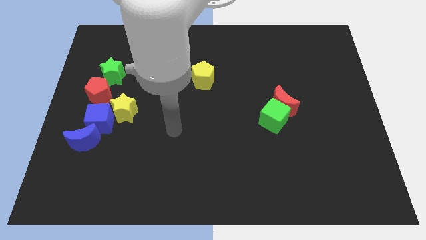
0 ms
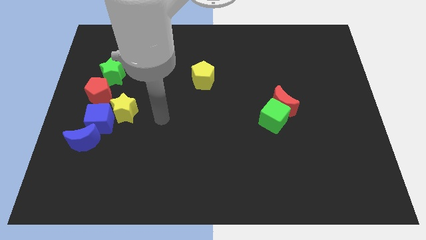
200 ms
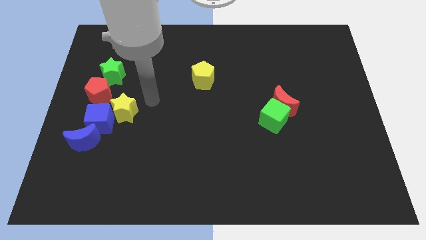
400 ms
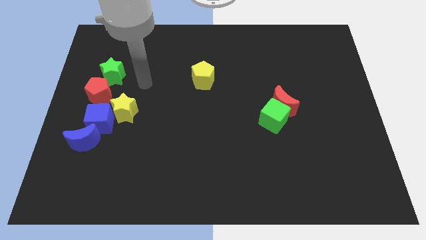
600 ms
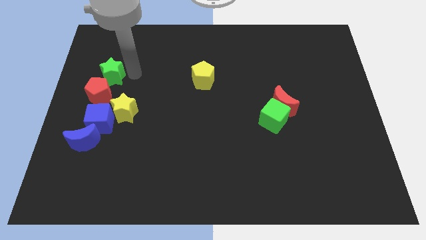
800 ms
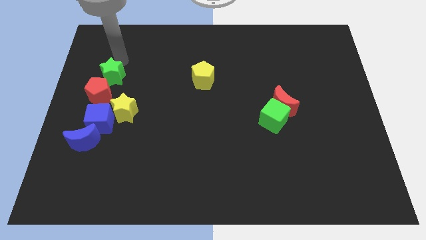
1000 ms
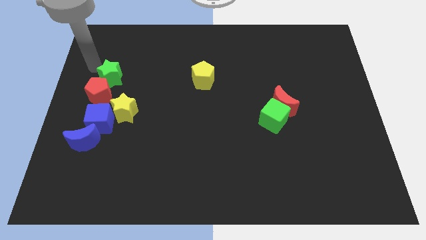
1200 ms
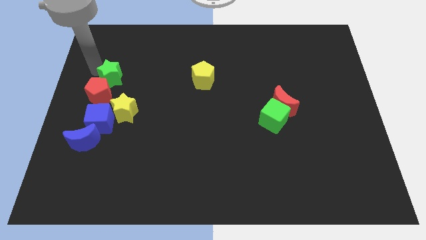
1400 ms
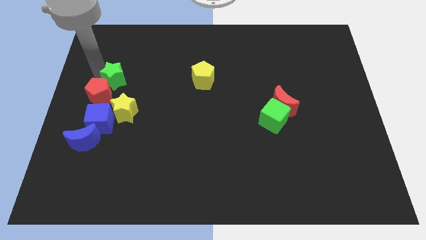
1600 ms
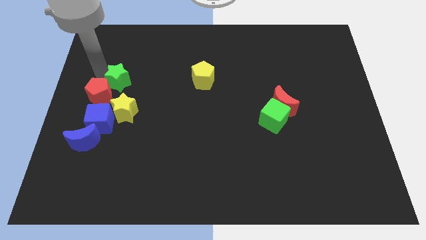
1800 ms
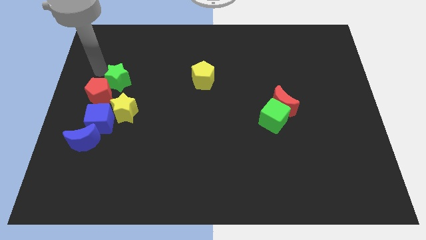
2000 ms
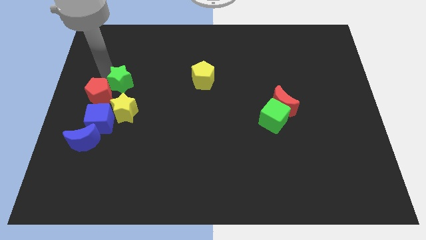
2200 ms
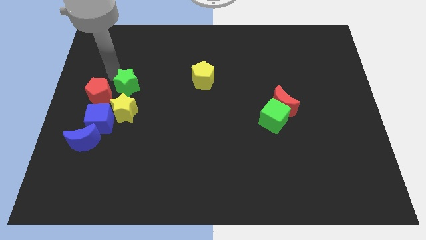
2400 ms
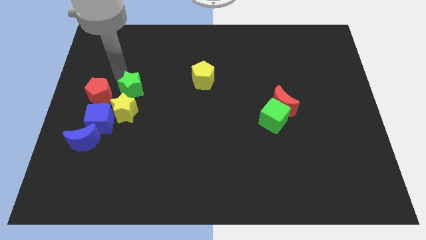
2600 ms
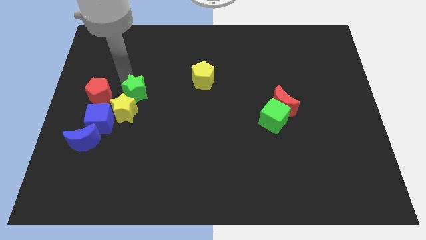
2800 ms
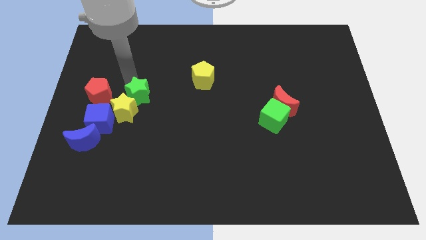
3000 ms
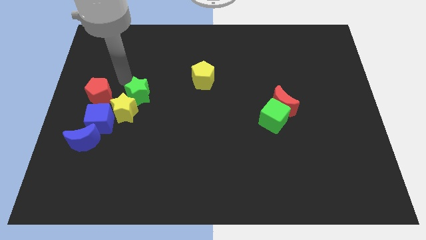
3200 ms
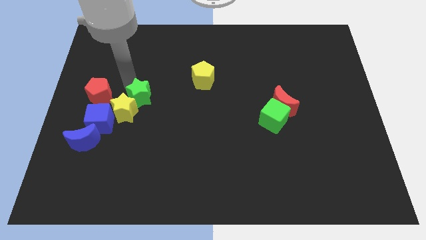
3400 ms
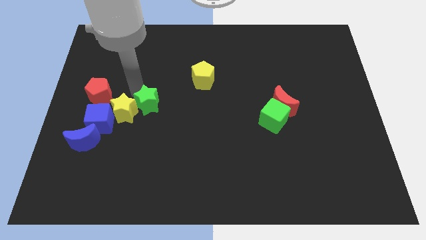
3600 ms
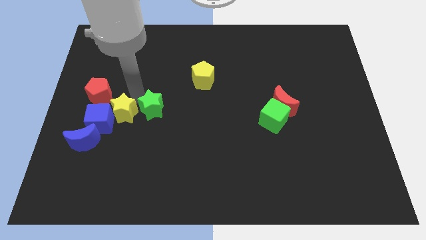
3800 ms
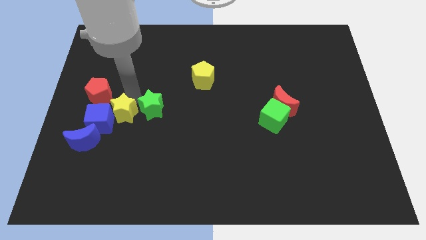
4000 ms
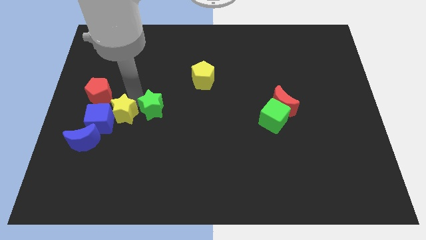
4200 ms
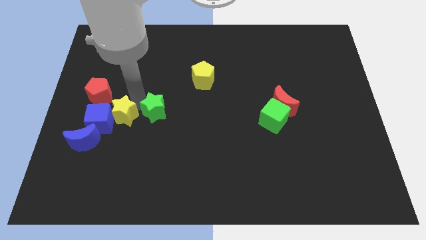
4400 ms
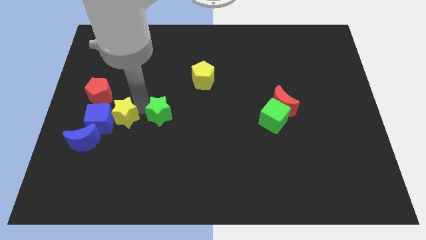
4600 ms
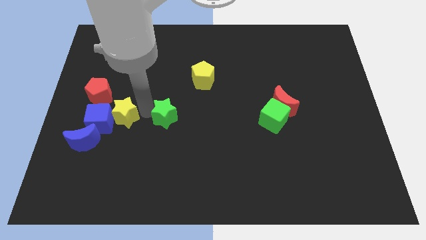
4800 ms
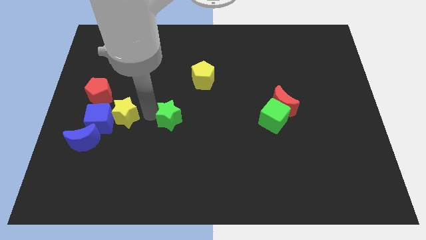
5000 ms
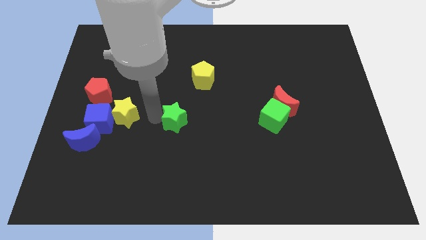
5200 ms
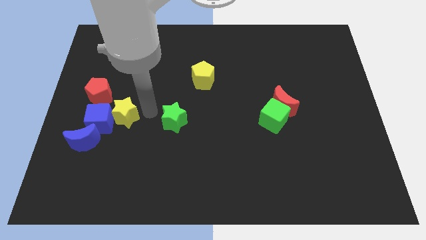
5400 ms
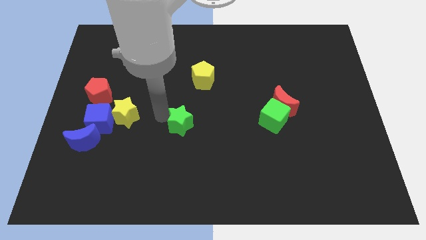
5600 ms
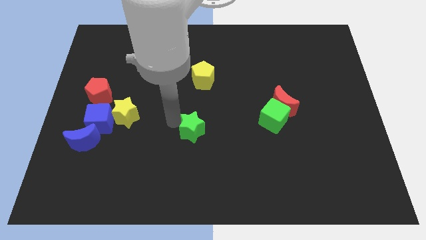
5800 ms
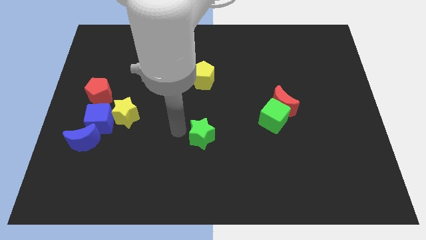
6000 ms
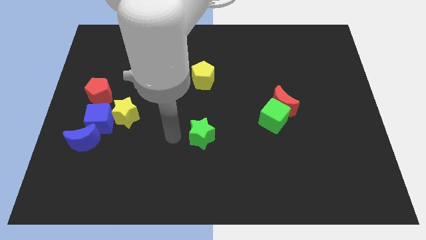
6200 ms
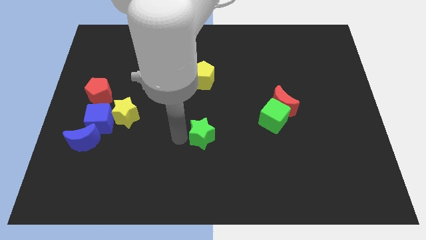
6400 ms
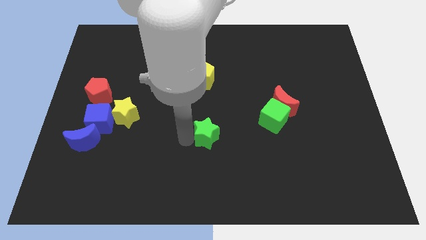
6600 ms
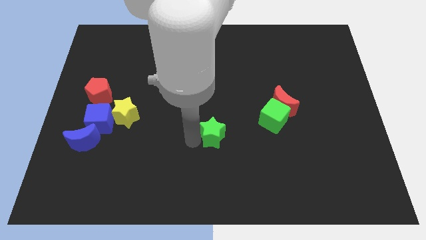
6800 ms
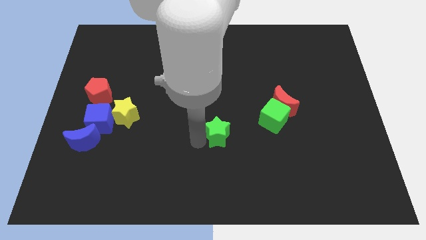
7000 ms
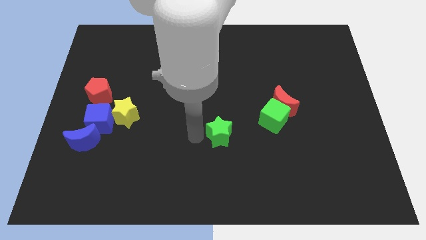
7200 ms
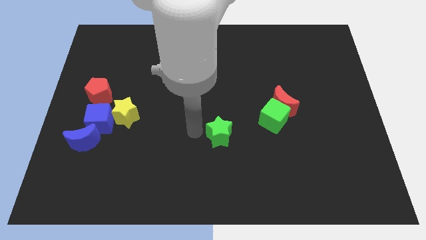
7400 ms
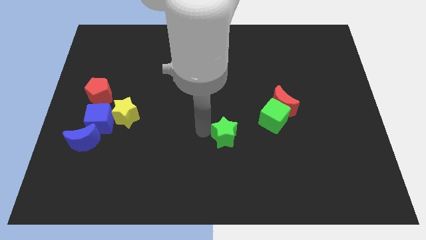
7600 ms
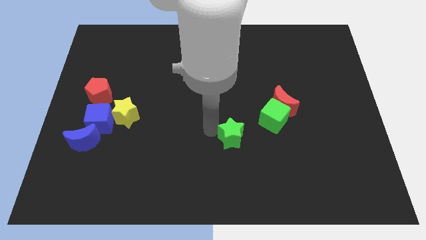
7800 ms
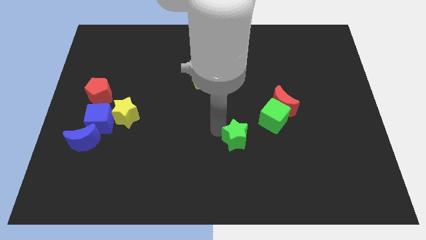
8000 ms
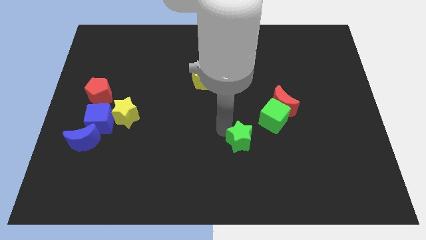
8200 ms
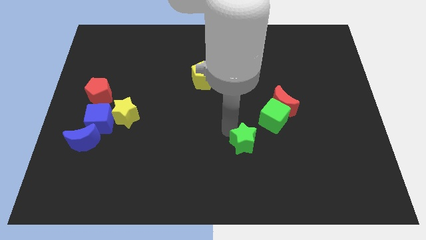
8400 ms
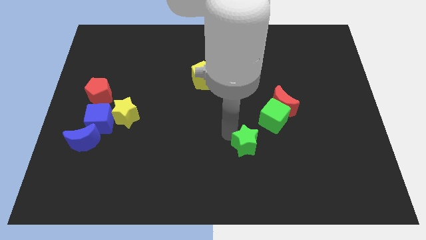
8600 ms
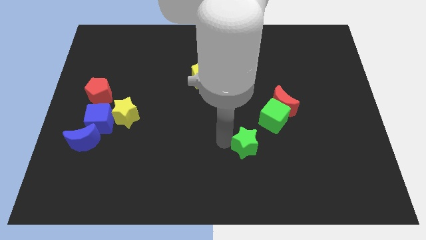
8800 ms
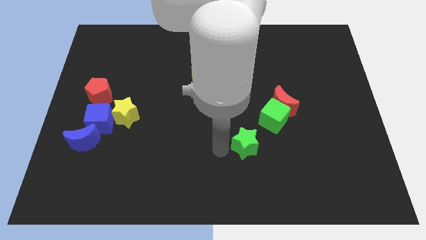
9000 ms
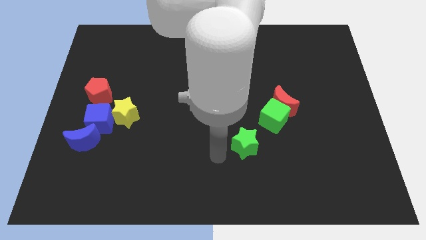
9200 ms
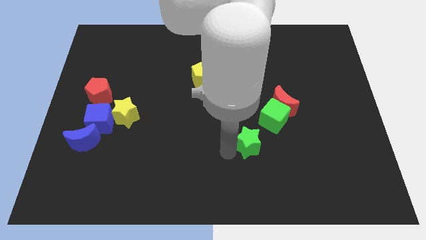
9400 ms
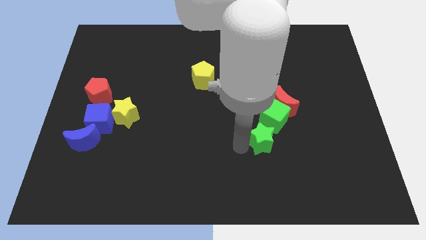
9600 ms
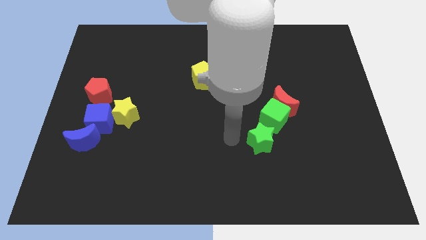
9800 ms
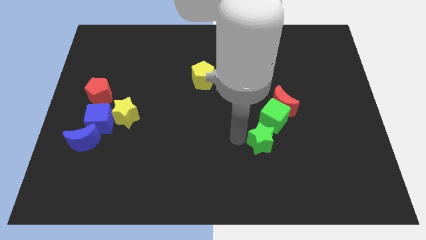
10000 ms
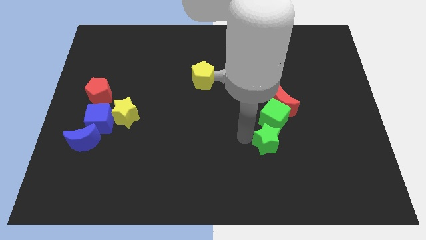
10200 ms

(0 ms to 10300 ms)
push the green star to the bottom of the red moon
